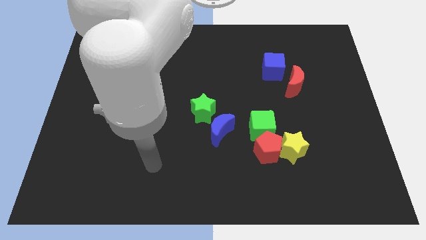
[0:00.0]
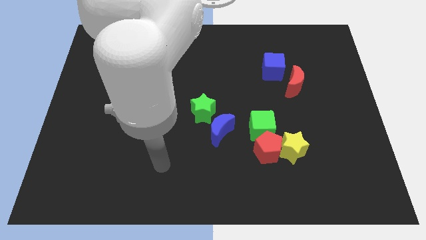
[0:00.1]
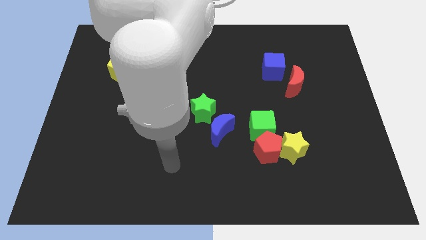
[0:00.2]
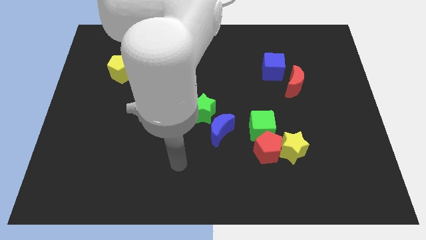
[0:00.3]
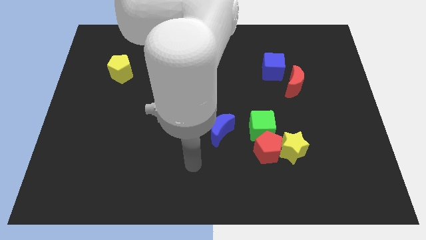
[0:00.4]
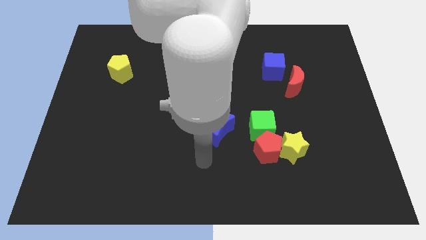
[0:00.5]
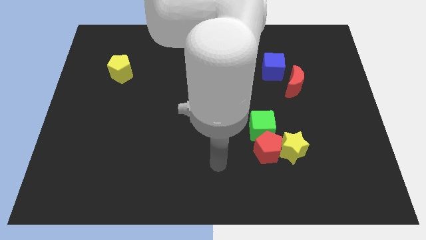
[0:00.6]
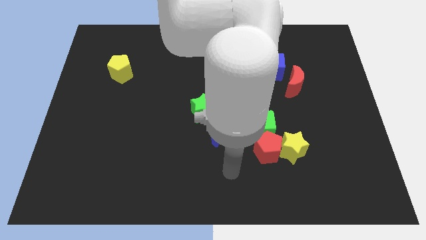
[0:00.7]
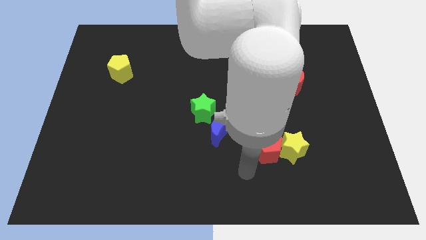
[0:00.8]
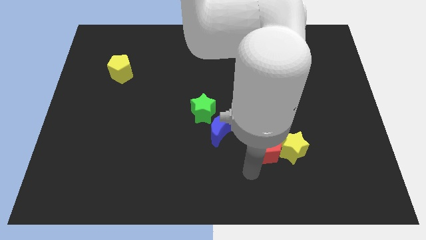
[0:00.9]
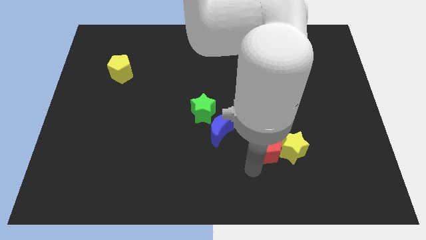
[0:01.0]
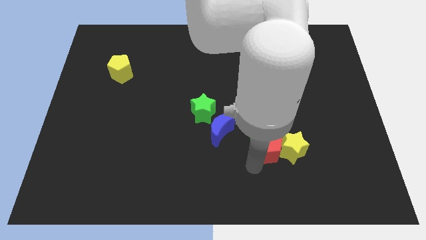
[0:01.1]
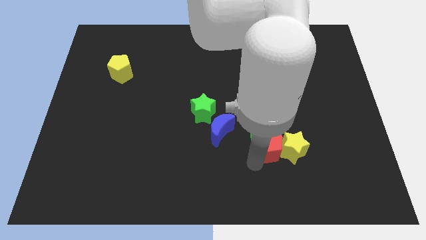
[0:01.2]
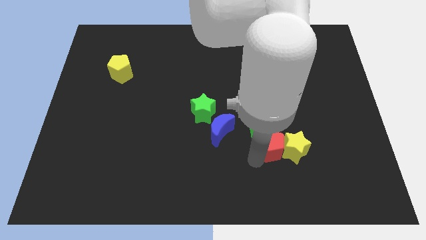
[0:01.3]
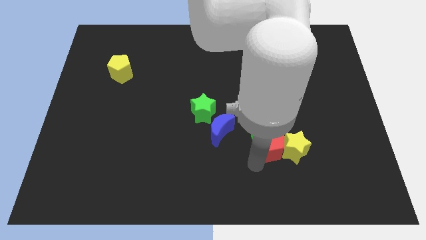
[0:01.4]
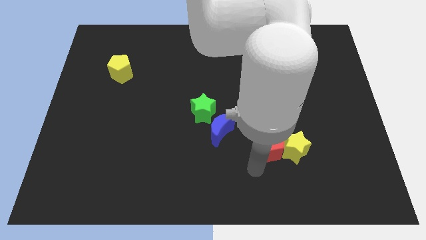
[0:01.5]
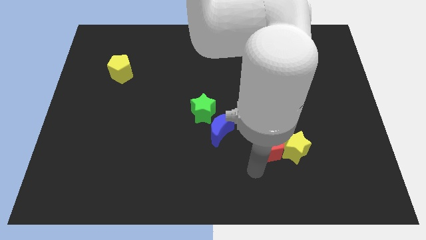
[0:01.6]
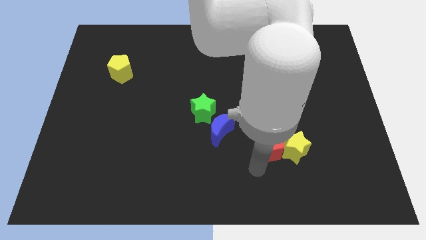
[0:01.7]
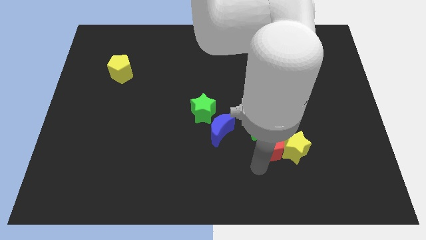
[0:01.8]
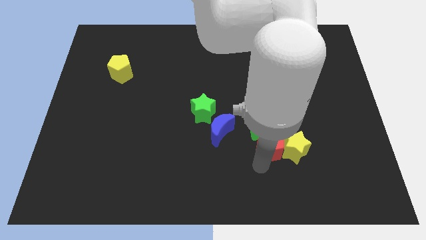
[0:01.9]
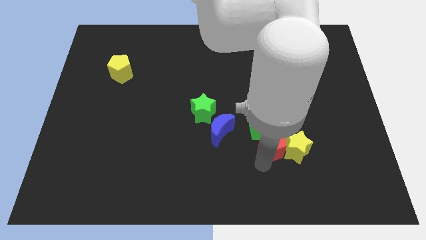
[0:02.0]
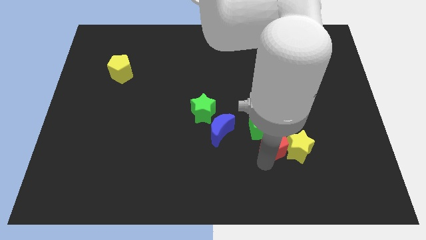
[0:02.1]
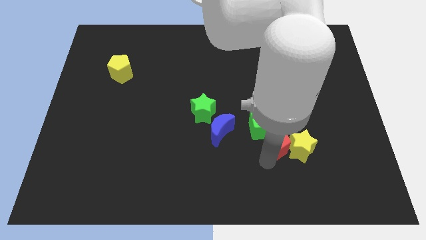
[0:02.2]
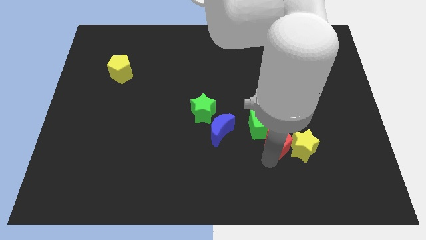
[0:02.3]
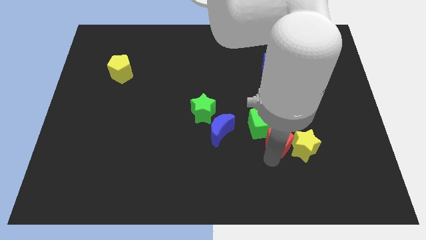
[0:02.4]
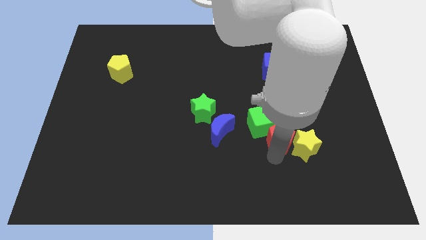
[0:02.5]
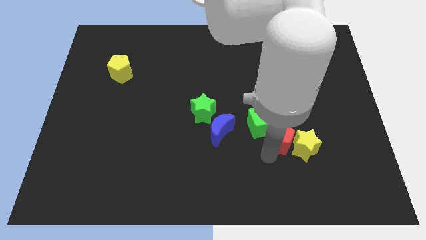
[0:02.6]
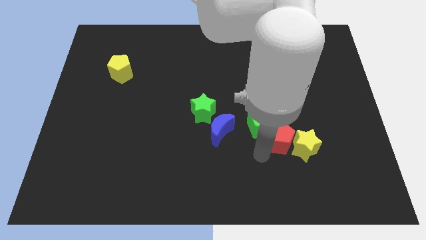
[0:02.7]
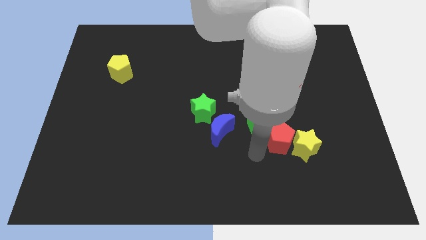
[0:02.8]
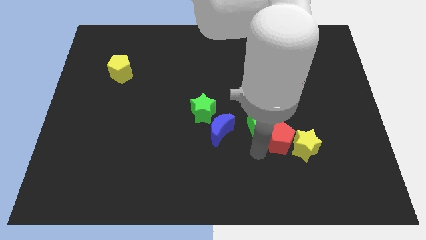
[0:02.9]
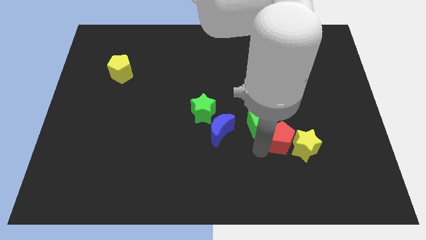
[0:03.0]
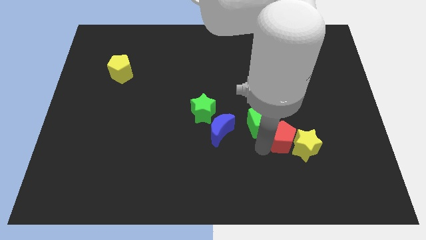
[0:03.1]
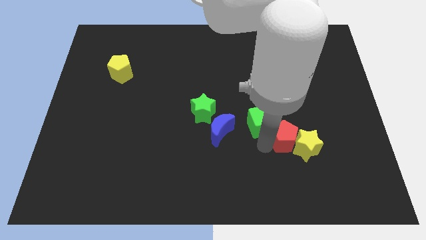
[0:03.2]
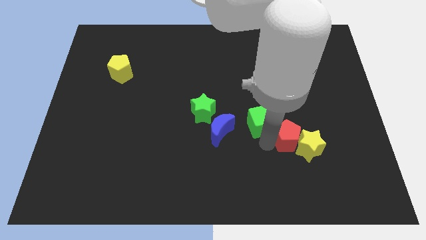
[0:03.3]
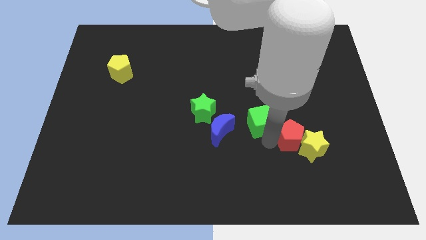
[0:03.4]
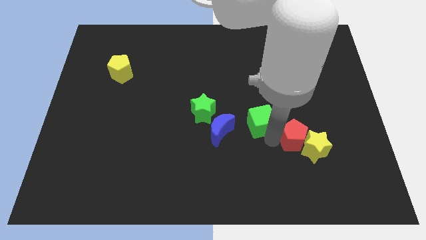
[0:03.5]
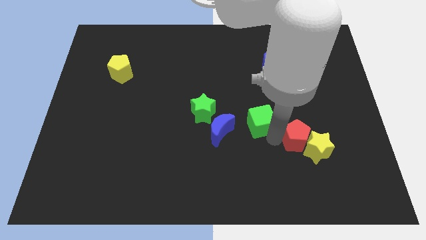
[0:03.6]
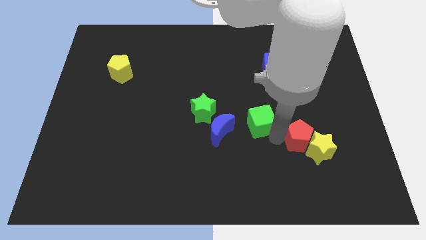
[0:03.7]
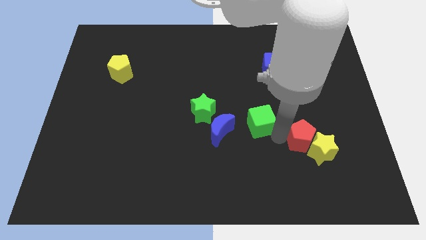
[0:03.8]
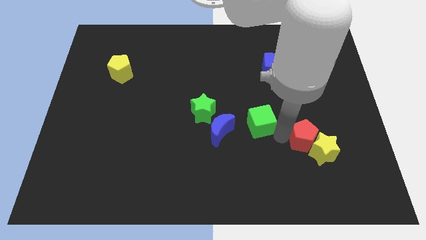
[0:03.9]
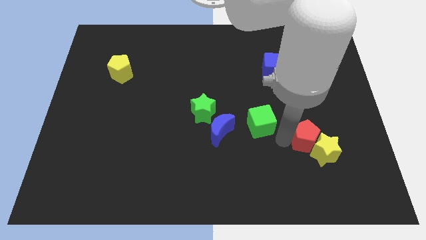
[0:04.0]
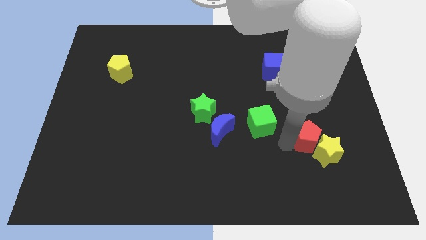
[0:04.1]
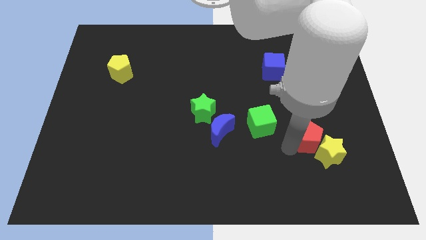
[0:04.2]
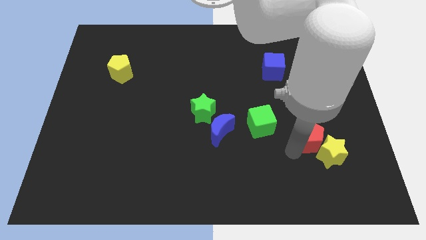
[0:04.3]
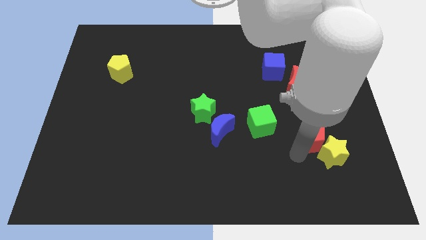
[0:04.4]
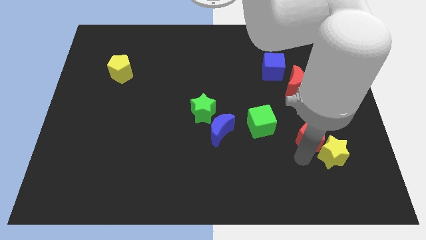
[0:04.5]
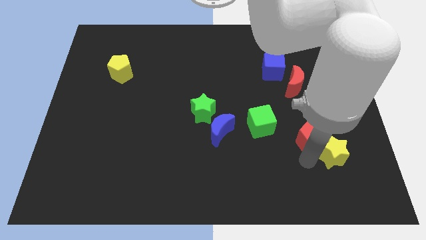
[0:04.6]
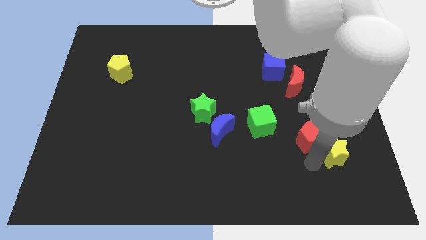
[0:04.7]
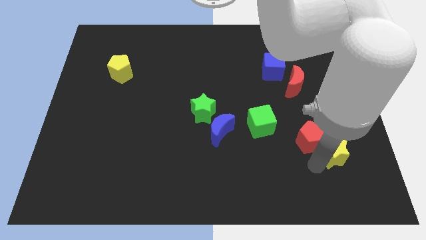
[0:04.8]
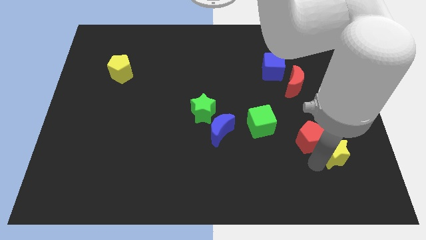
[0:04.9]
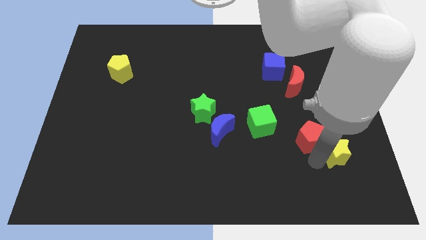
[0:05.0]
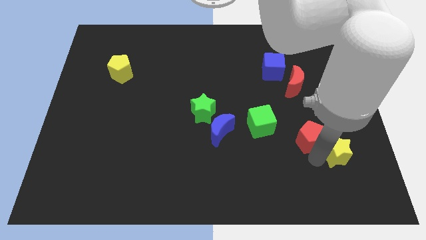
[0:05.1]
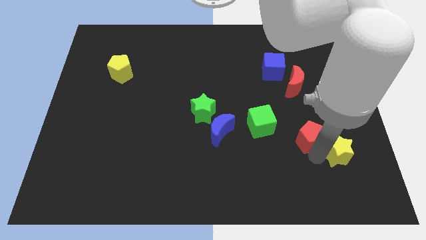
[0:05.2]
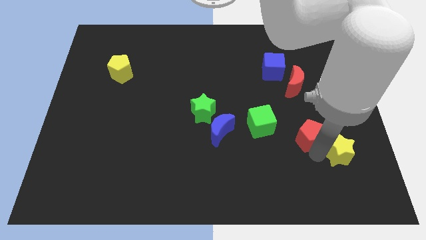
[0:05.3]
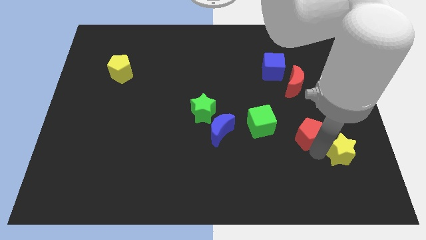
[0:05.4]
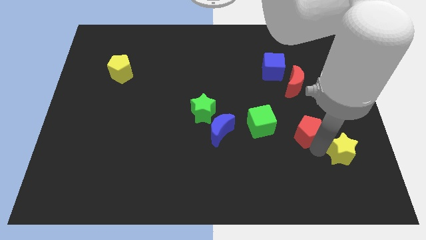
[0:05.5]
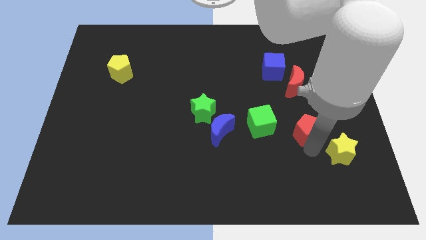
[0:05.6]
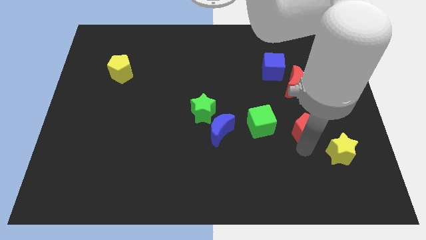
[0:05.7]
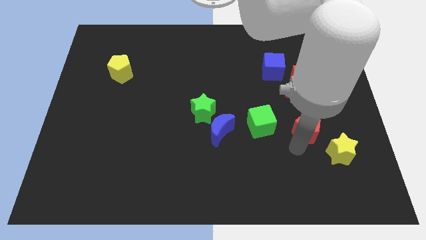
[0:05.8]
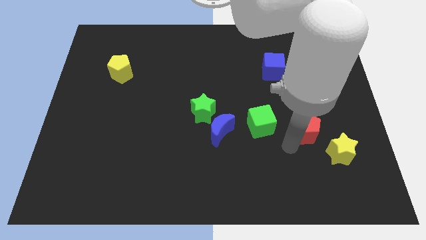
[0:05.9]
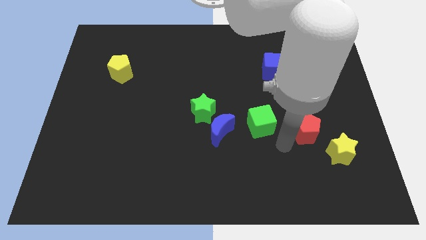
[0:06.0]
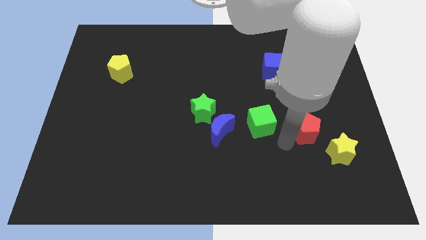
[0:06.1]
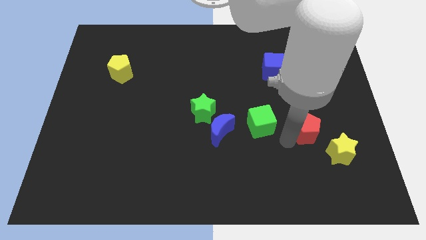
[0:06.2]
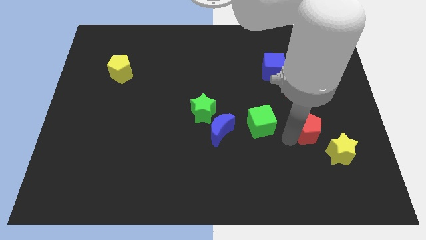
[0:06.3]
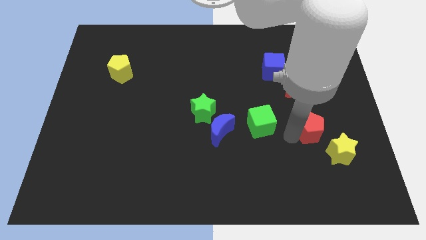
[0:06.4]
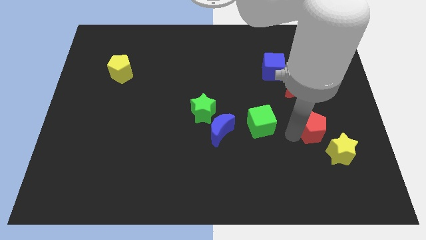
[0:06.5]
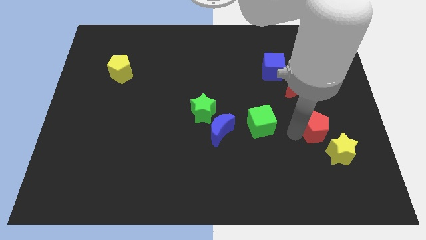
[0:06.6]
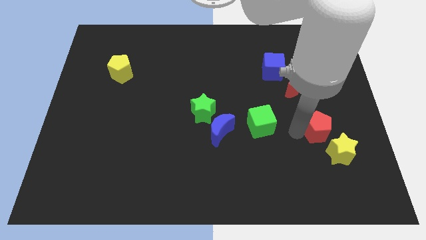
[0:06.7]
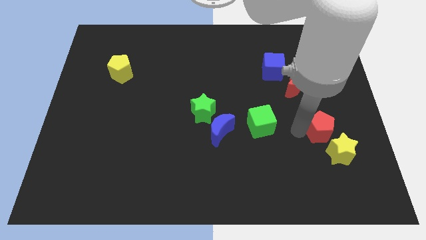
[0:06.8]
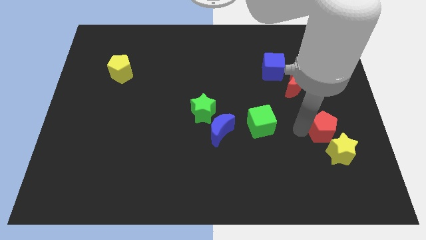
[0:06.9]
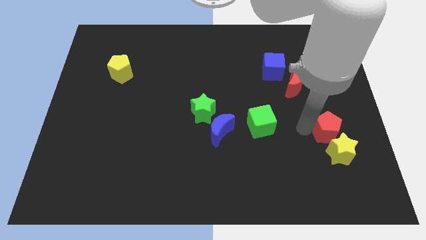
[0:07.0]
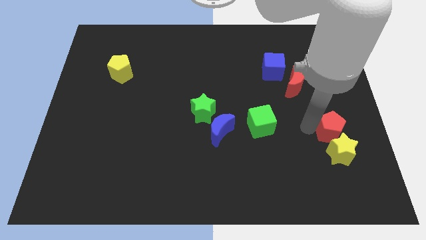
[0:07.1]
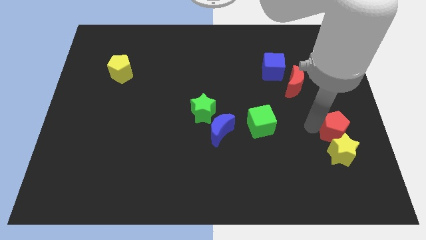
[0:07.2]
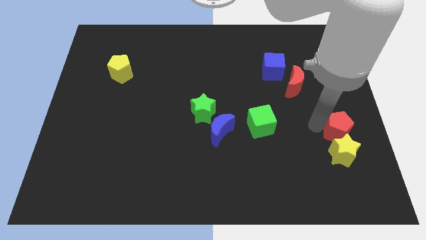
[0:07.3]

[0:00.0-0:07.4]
push the red pentagon to the center right
